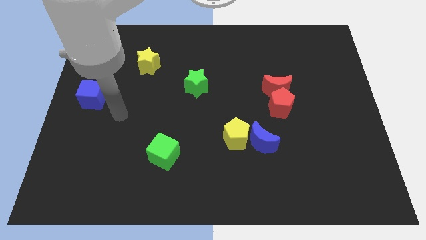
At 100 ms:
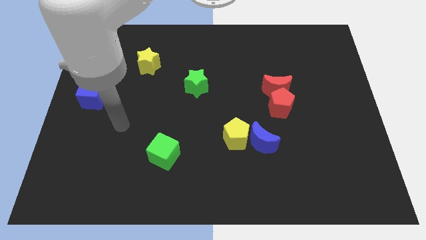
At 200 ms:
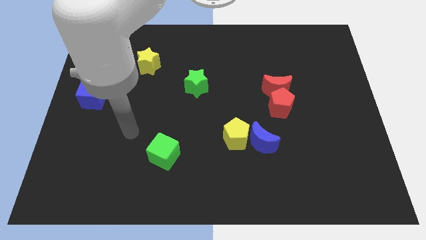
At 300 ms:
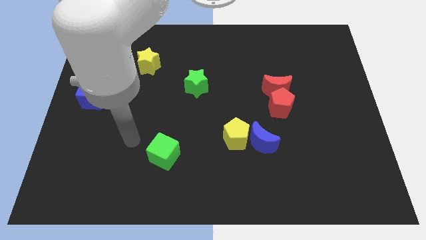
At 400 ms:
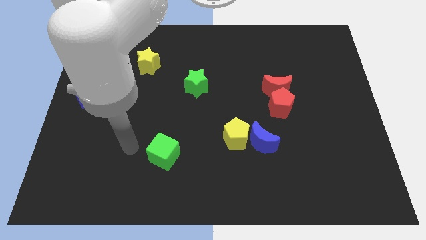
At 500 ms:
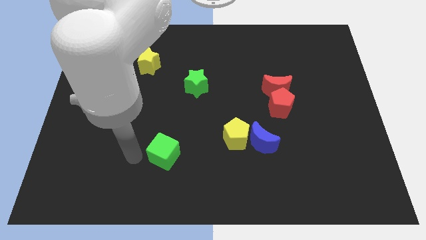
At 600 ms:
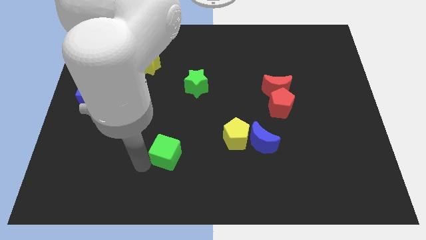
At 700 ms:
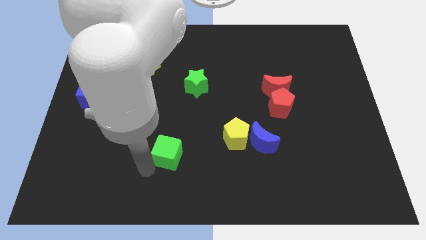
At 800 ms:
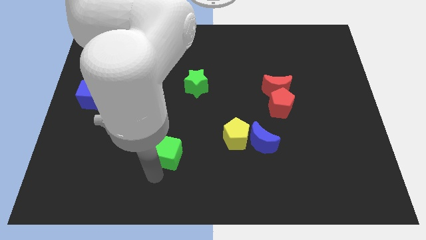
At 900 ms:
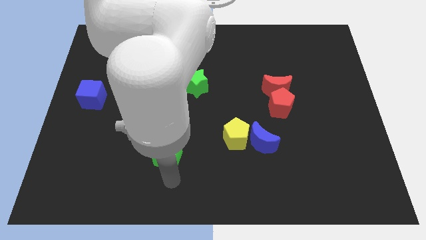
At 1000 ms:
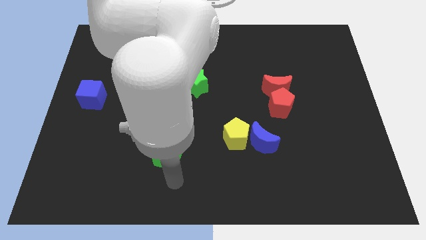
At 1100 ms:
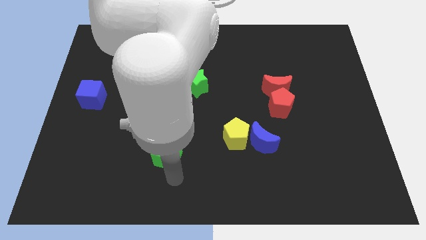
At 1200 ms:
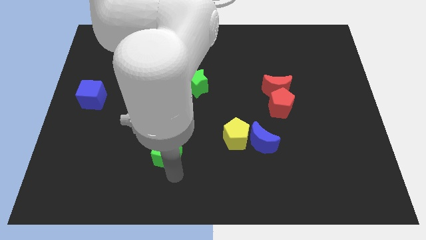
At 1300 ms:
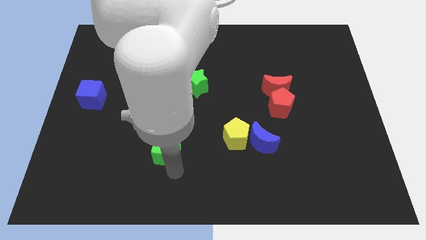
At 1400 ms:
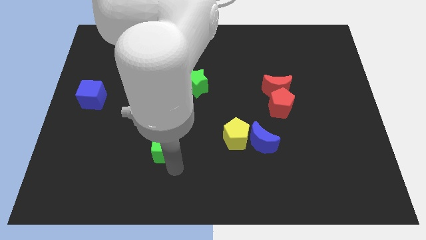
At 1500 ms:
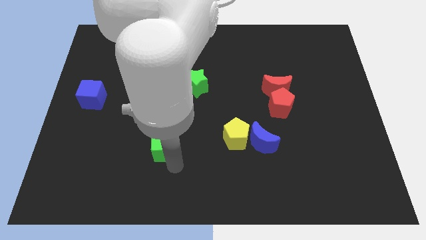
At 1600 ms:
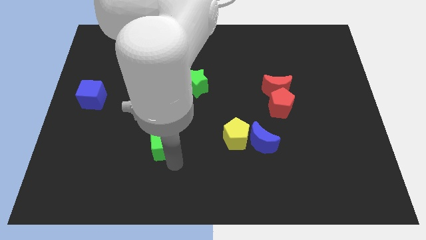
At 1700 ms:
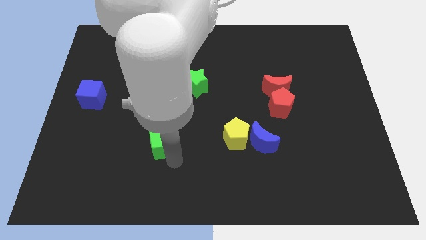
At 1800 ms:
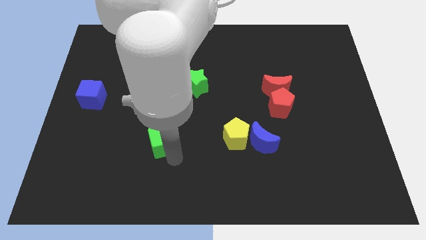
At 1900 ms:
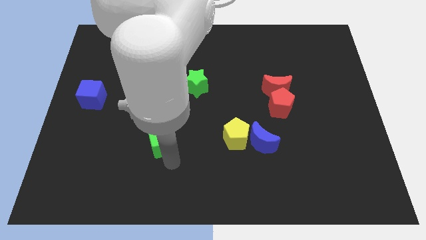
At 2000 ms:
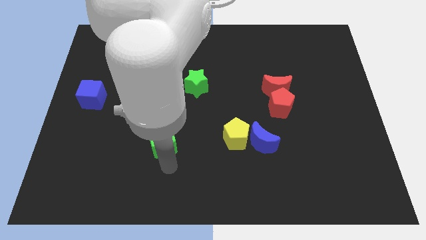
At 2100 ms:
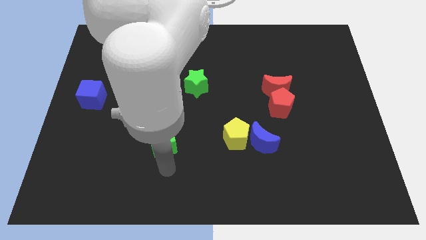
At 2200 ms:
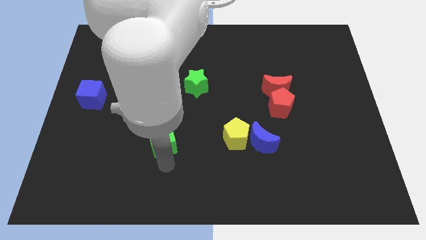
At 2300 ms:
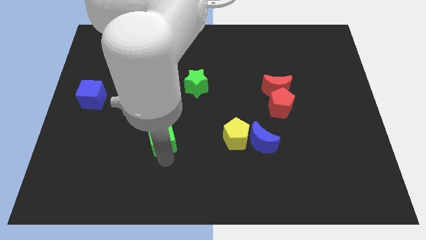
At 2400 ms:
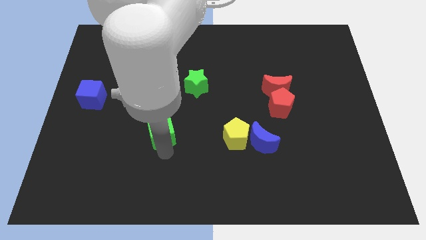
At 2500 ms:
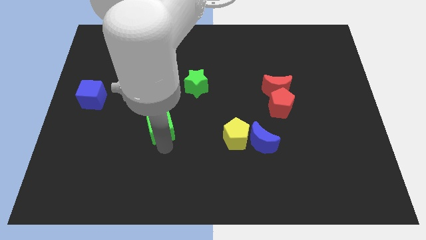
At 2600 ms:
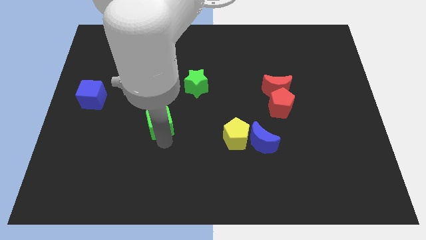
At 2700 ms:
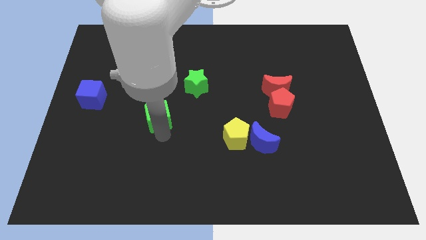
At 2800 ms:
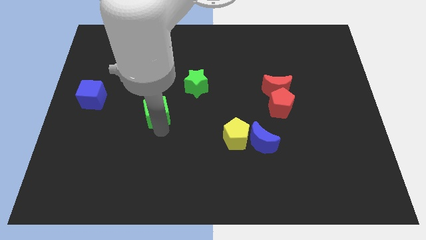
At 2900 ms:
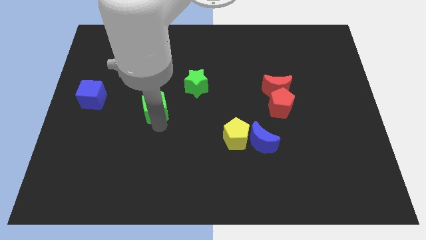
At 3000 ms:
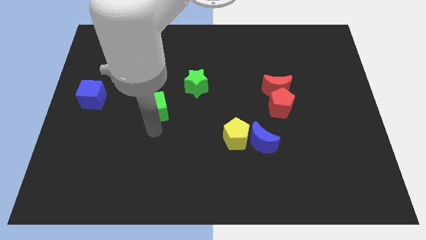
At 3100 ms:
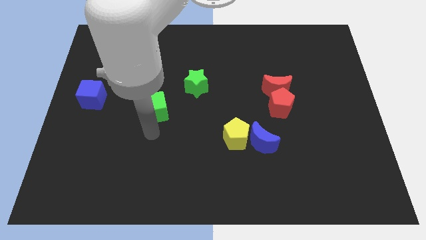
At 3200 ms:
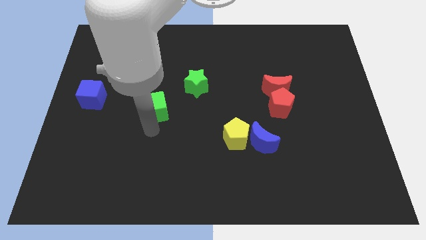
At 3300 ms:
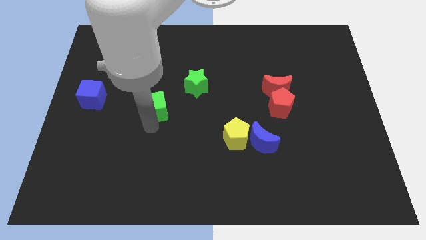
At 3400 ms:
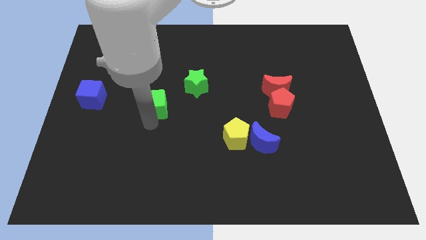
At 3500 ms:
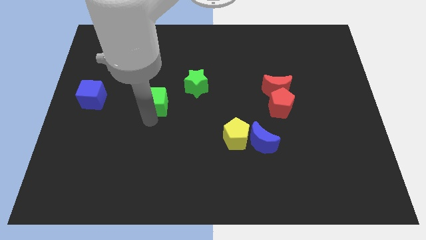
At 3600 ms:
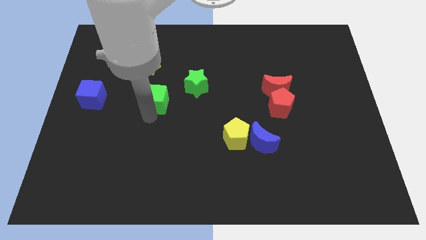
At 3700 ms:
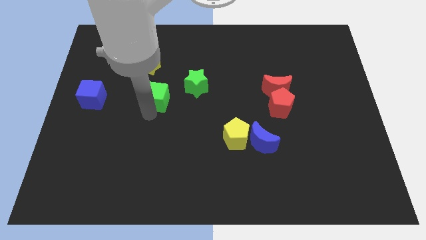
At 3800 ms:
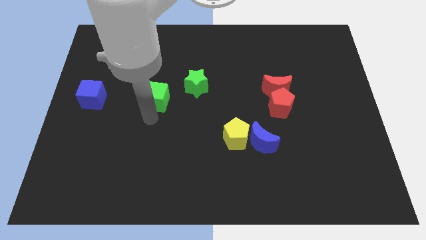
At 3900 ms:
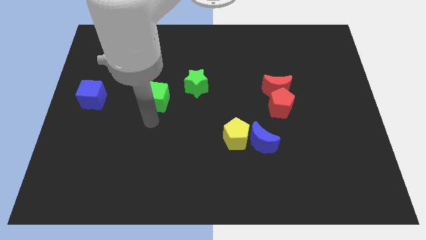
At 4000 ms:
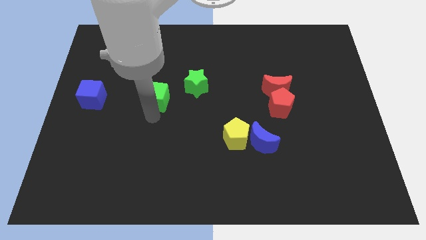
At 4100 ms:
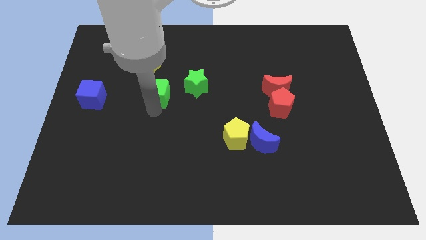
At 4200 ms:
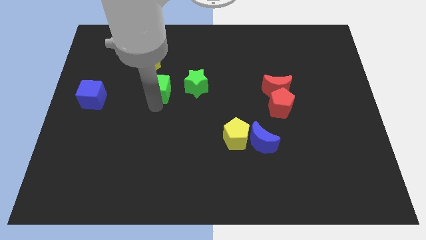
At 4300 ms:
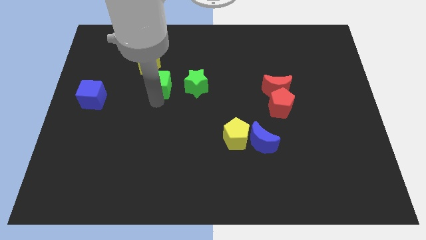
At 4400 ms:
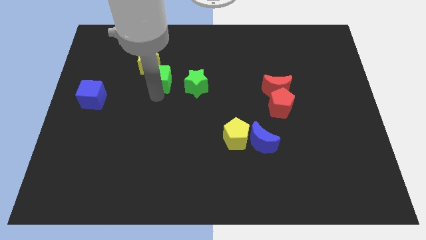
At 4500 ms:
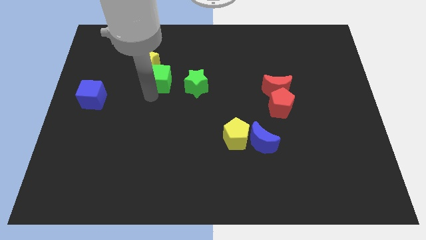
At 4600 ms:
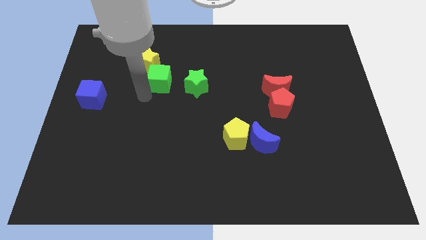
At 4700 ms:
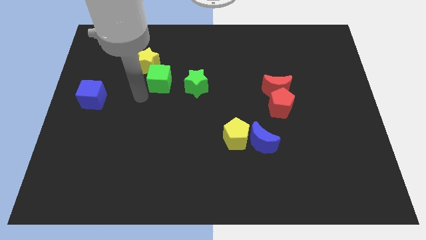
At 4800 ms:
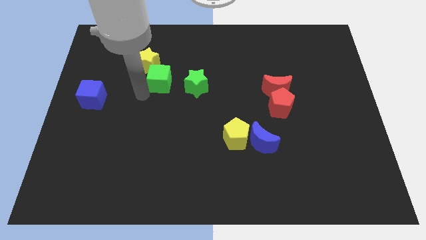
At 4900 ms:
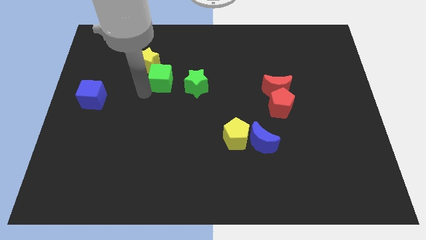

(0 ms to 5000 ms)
put the green cube to the top left of the green star

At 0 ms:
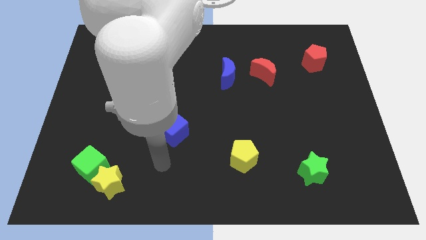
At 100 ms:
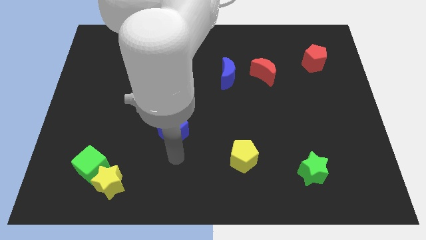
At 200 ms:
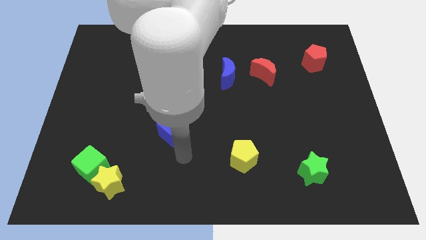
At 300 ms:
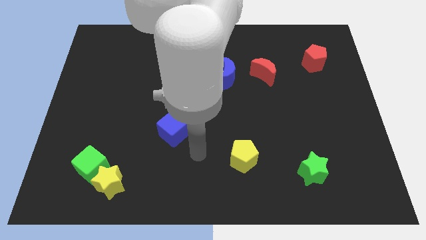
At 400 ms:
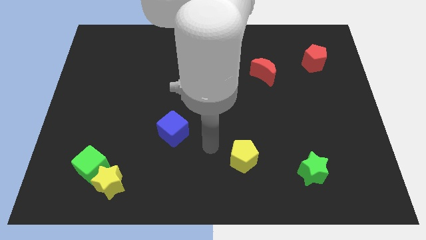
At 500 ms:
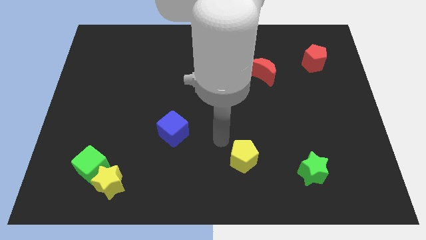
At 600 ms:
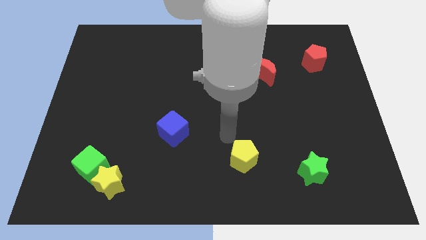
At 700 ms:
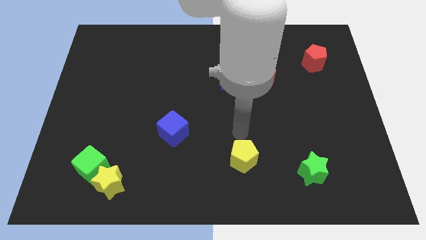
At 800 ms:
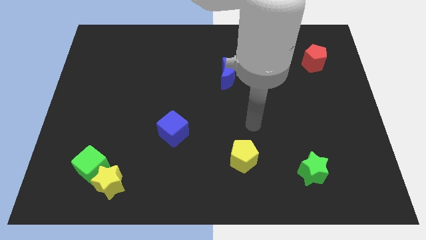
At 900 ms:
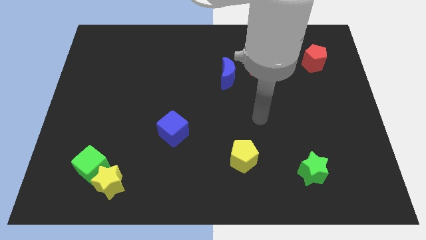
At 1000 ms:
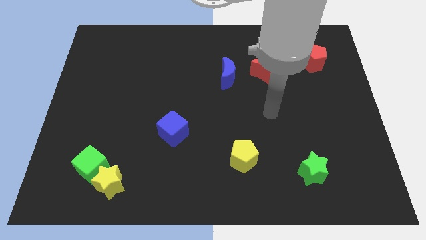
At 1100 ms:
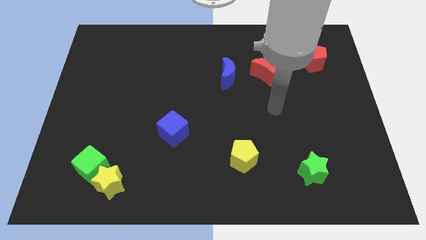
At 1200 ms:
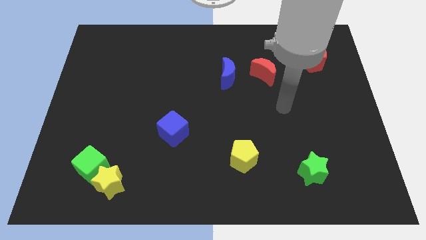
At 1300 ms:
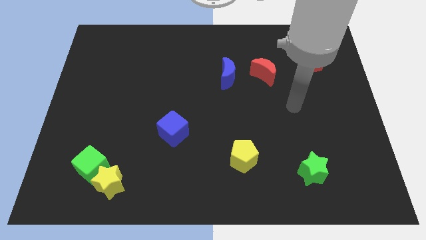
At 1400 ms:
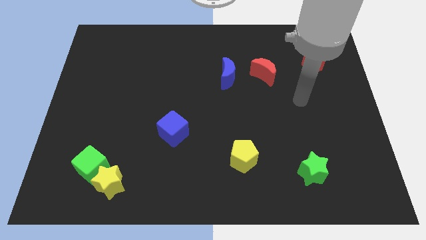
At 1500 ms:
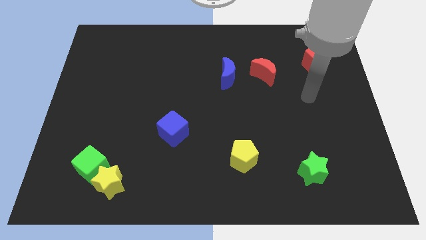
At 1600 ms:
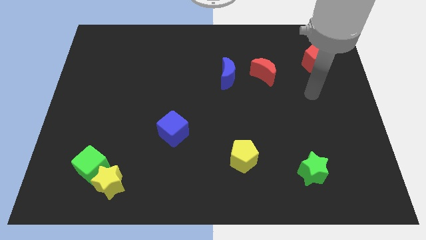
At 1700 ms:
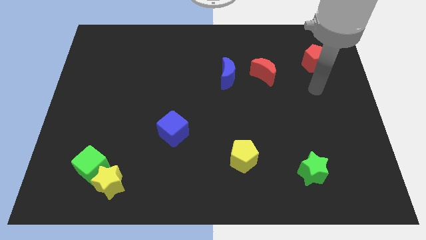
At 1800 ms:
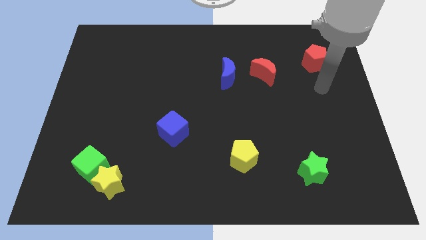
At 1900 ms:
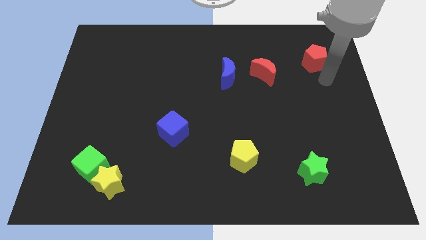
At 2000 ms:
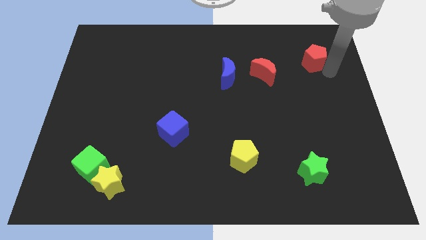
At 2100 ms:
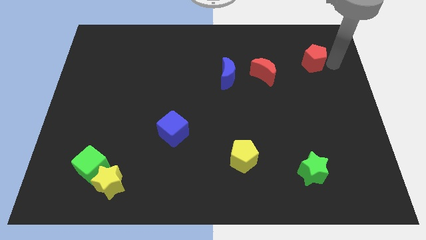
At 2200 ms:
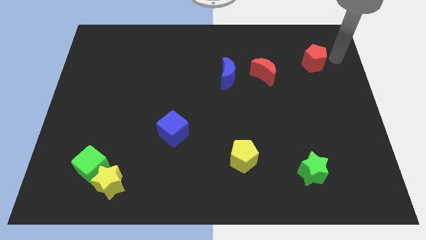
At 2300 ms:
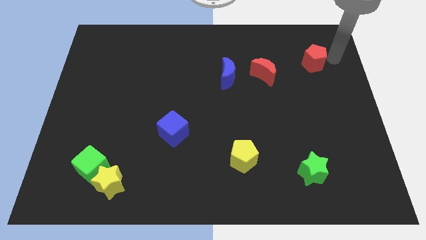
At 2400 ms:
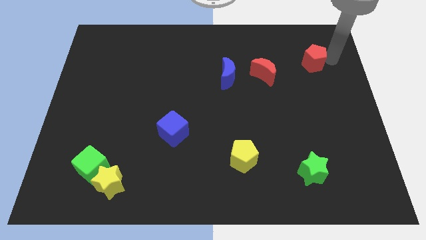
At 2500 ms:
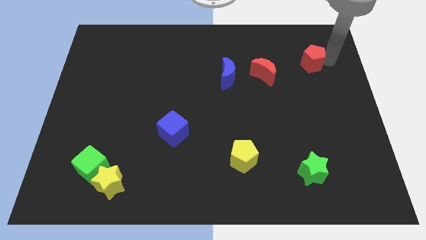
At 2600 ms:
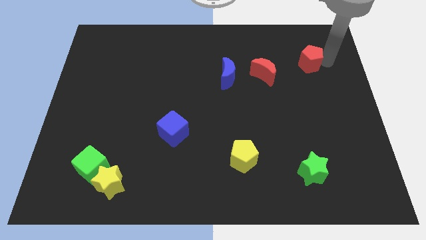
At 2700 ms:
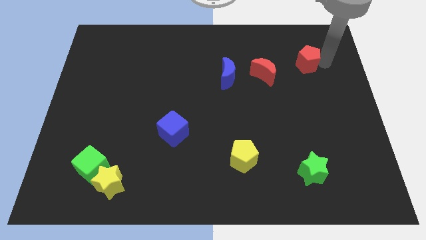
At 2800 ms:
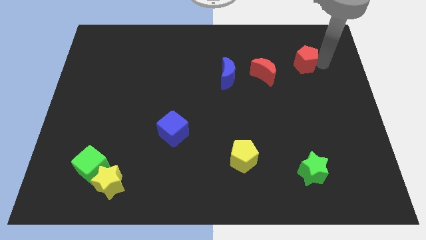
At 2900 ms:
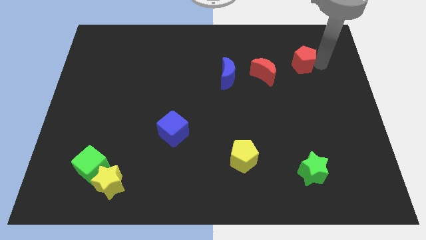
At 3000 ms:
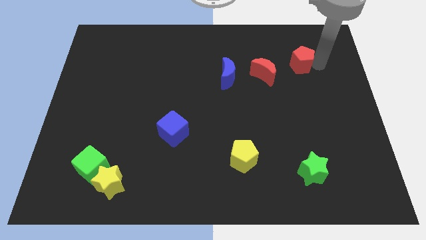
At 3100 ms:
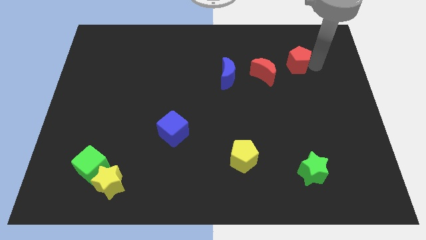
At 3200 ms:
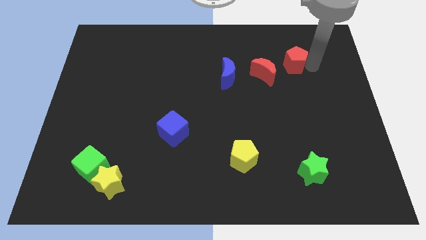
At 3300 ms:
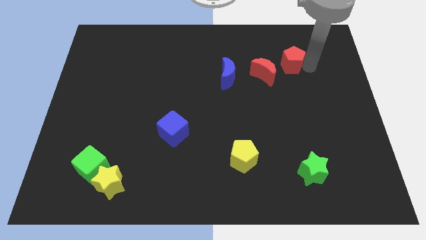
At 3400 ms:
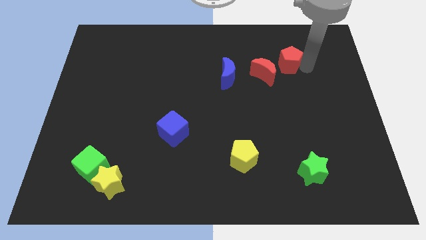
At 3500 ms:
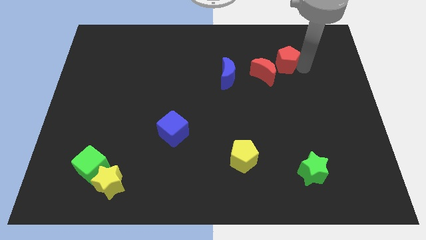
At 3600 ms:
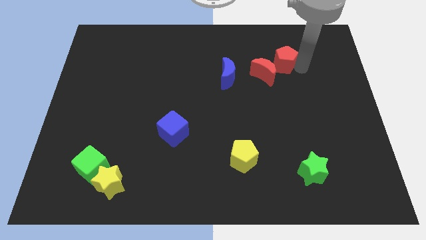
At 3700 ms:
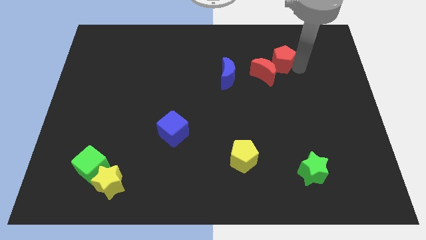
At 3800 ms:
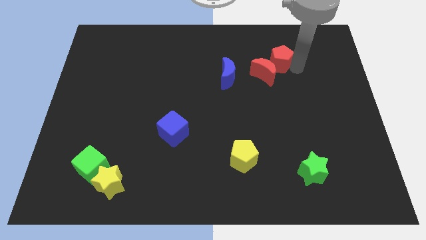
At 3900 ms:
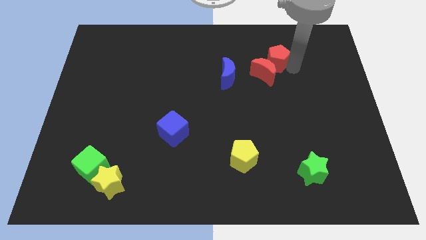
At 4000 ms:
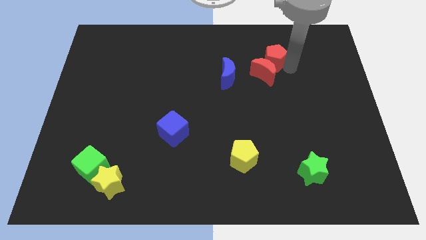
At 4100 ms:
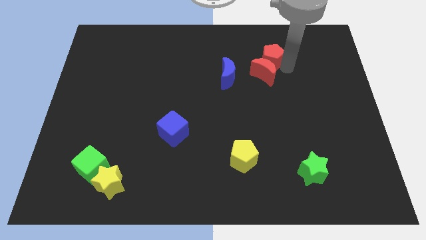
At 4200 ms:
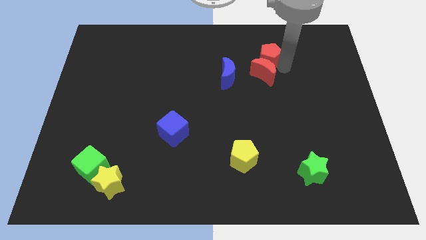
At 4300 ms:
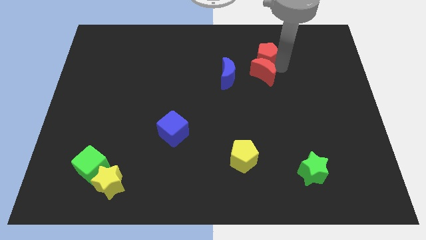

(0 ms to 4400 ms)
put the red pentagon to the top right side of the blue moon
